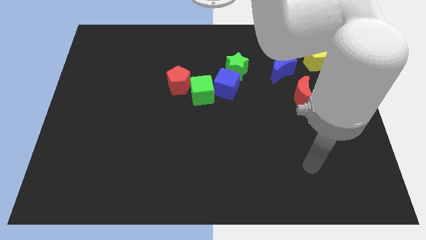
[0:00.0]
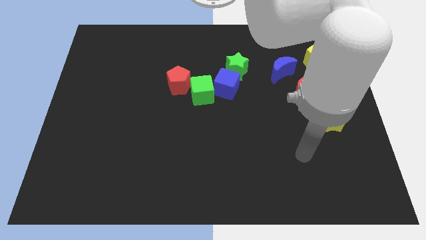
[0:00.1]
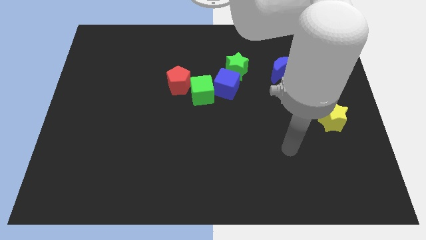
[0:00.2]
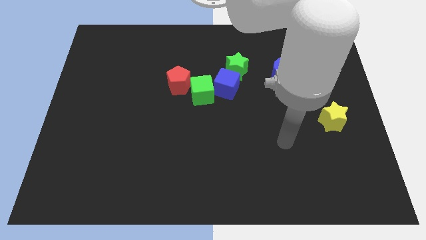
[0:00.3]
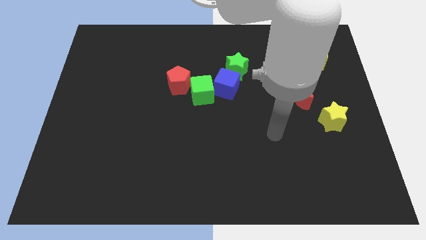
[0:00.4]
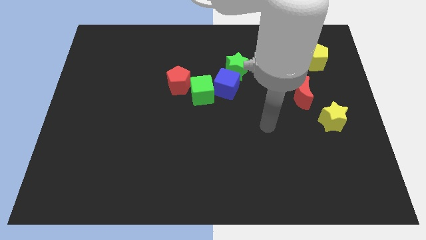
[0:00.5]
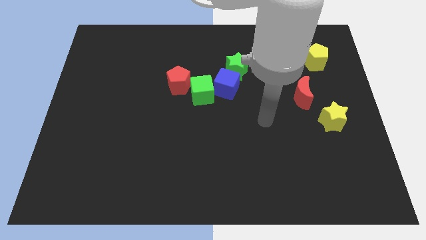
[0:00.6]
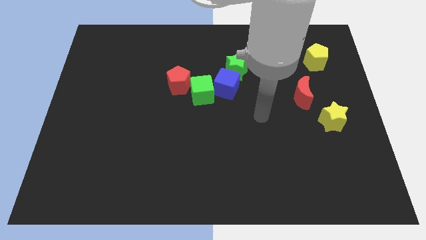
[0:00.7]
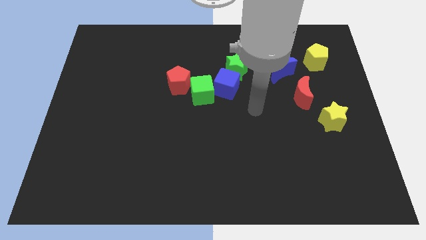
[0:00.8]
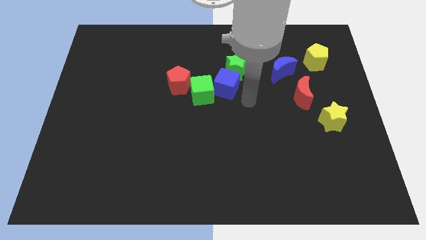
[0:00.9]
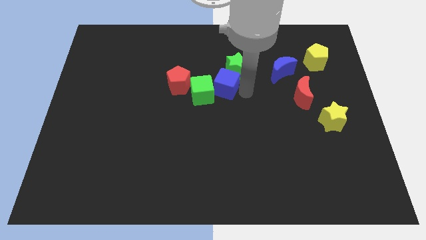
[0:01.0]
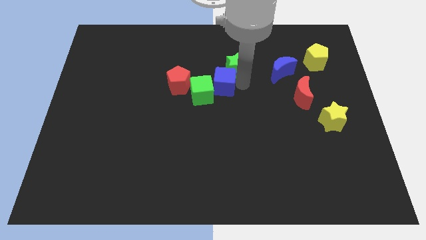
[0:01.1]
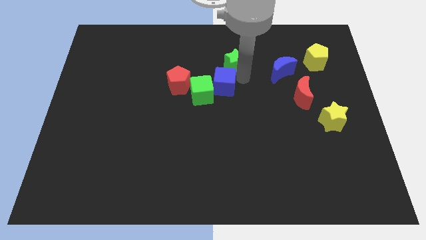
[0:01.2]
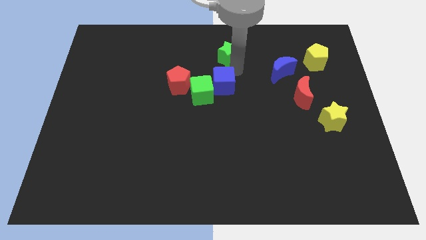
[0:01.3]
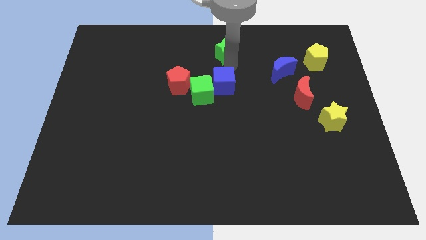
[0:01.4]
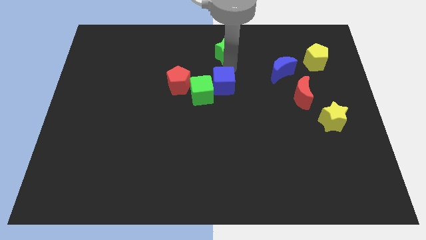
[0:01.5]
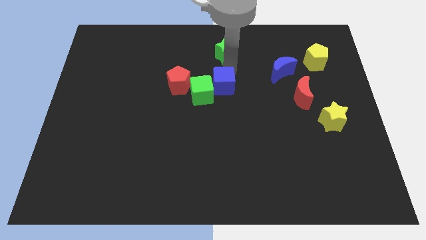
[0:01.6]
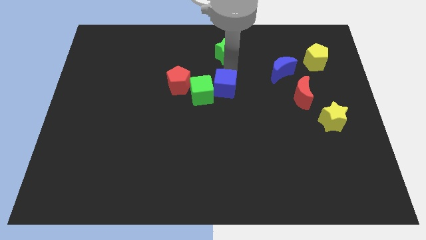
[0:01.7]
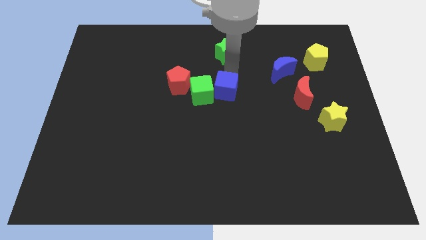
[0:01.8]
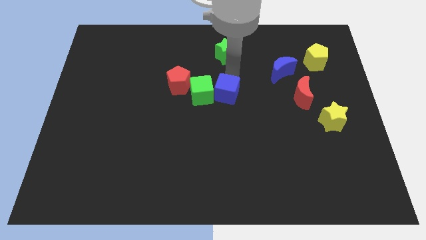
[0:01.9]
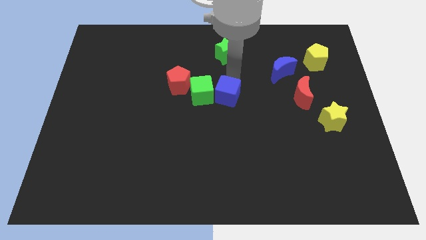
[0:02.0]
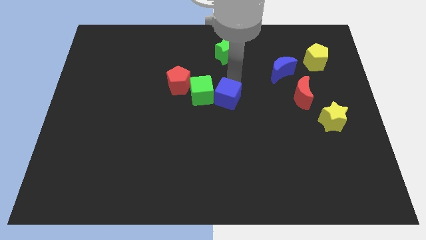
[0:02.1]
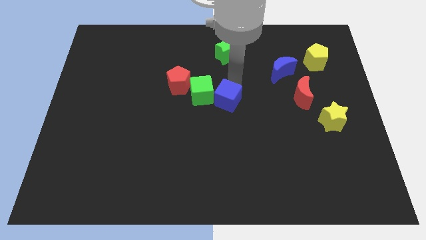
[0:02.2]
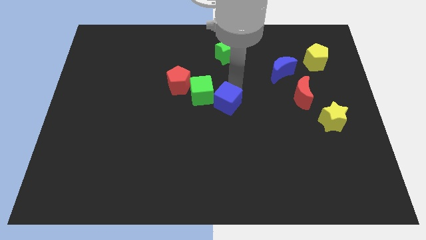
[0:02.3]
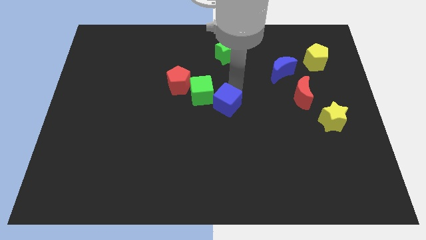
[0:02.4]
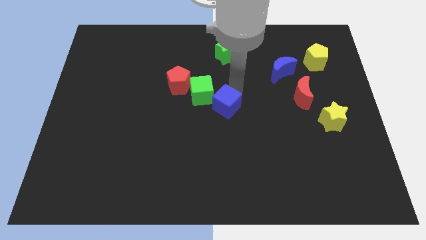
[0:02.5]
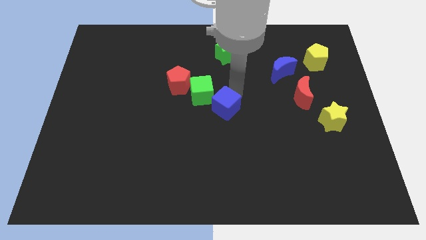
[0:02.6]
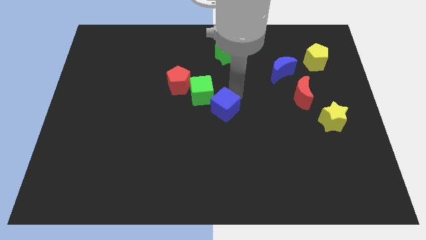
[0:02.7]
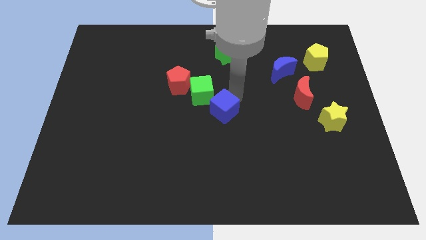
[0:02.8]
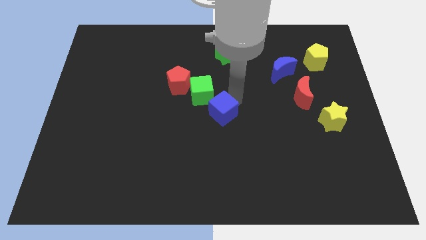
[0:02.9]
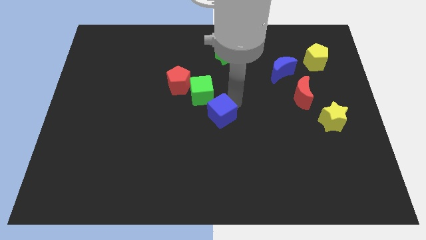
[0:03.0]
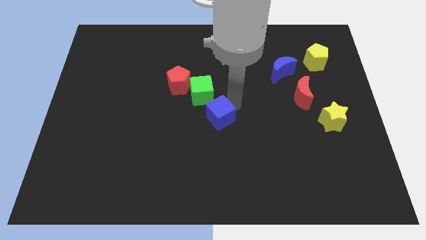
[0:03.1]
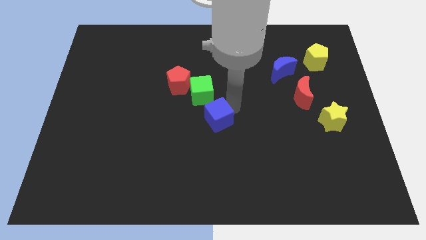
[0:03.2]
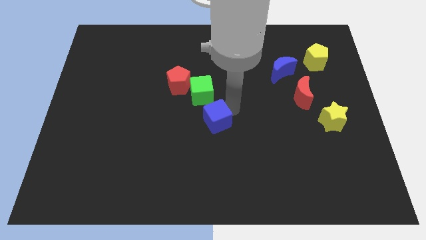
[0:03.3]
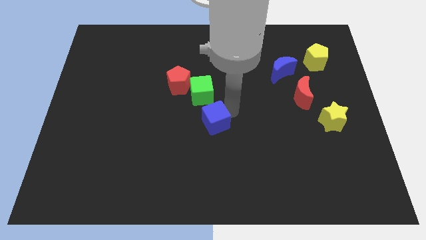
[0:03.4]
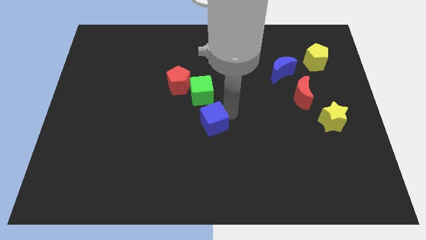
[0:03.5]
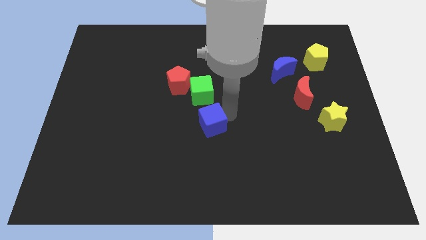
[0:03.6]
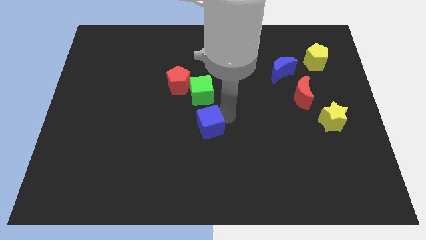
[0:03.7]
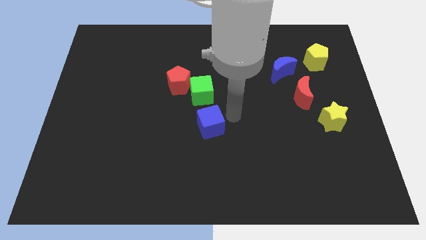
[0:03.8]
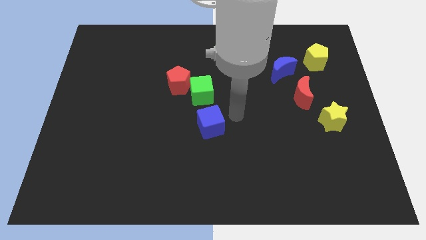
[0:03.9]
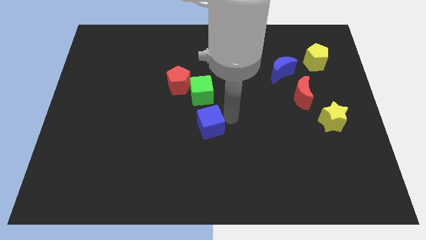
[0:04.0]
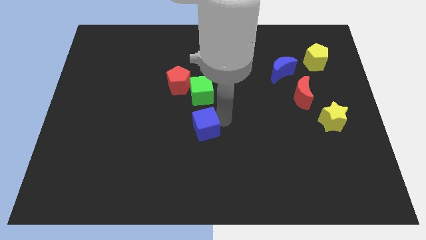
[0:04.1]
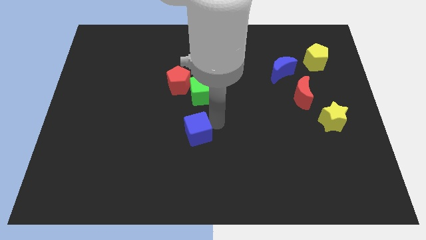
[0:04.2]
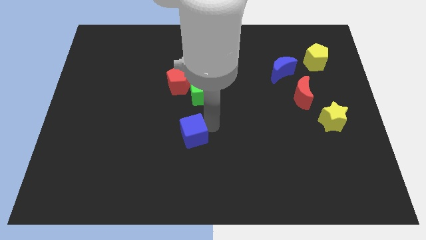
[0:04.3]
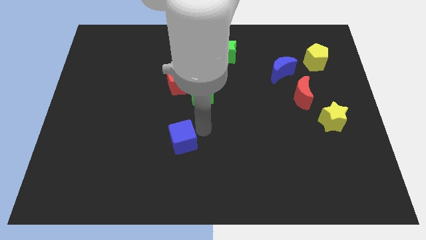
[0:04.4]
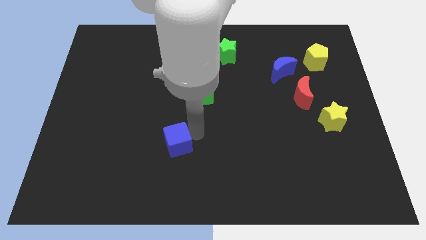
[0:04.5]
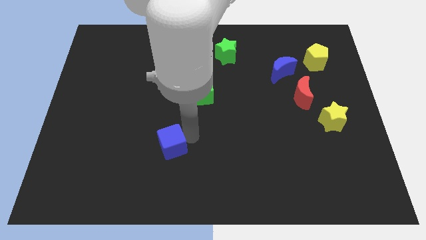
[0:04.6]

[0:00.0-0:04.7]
slide the blue cube diagonally downwards and left

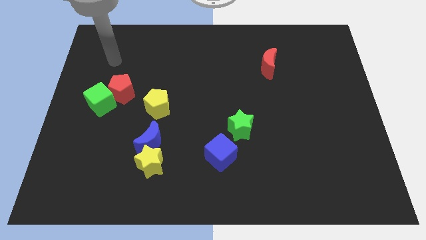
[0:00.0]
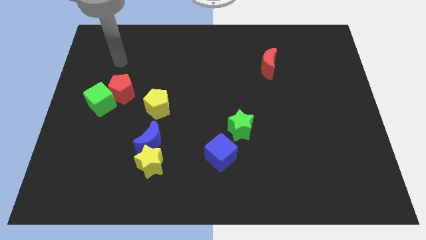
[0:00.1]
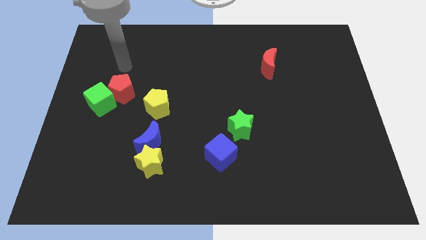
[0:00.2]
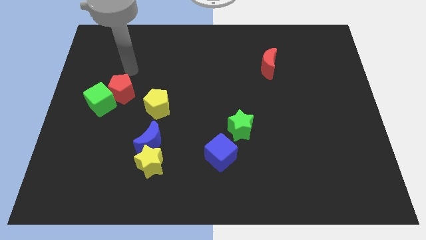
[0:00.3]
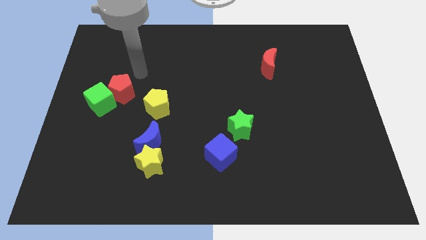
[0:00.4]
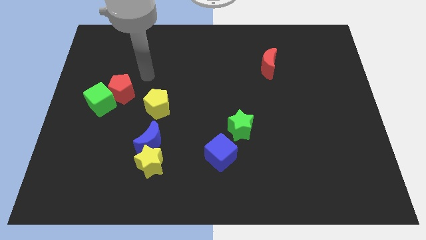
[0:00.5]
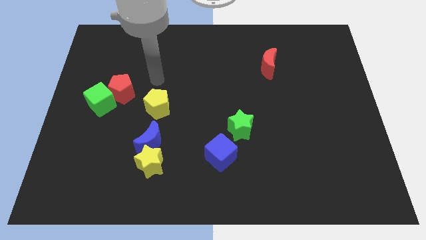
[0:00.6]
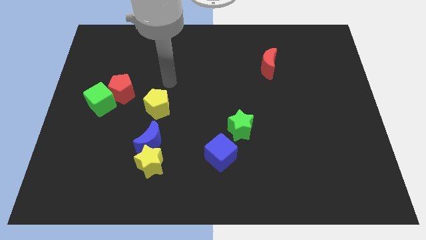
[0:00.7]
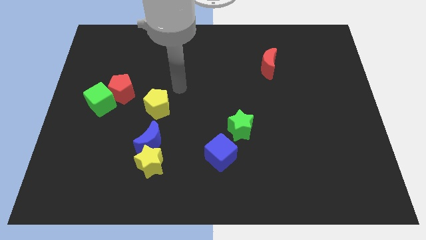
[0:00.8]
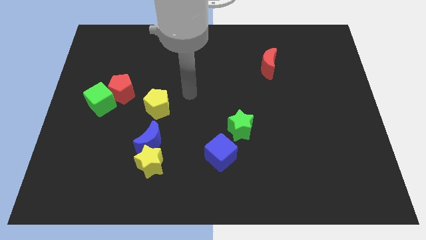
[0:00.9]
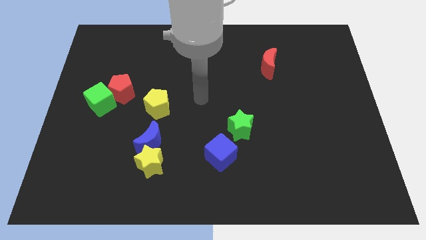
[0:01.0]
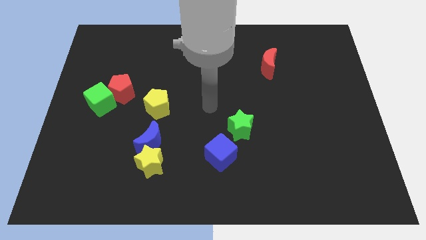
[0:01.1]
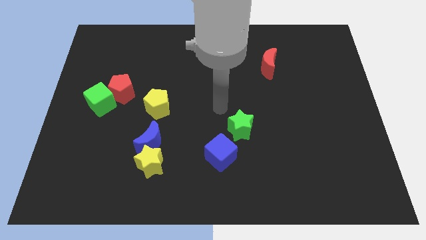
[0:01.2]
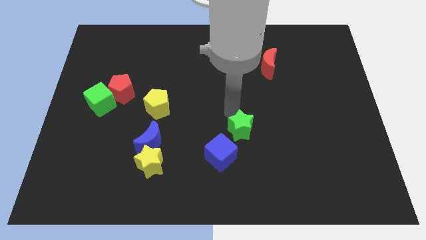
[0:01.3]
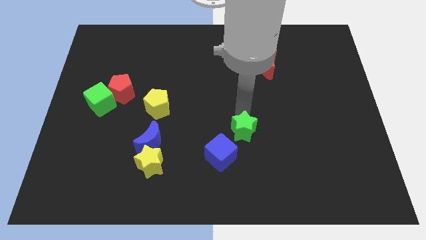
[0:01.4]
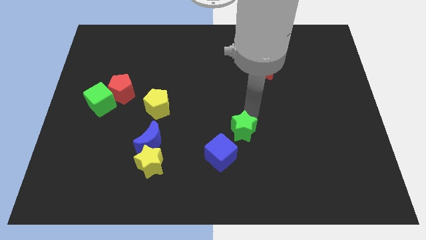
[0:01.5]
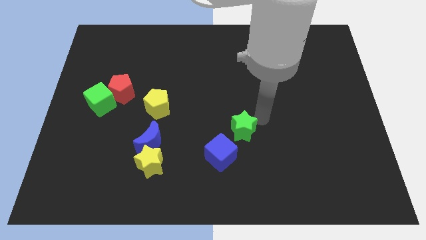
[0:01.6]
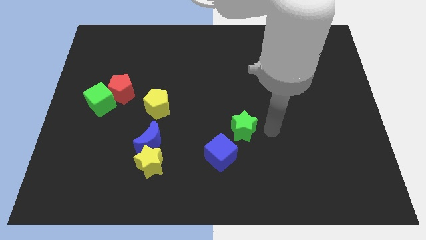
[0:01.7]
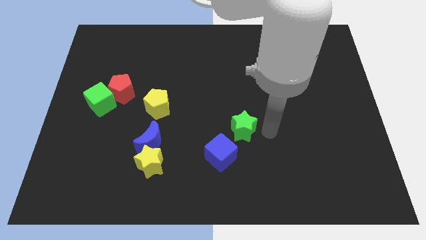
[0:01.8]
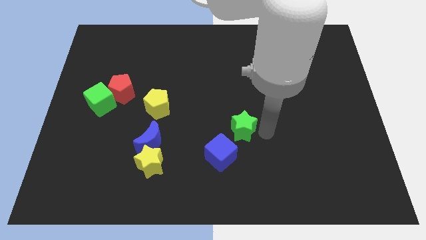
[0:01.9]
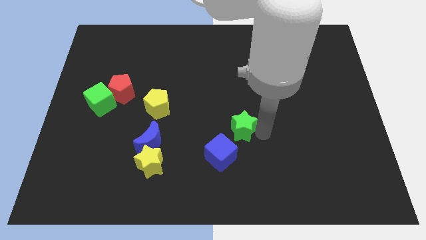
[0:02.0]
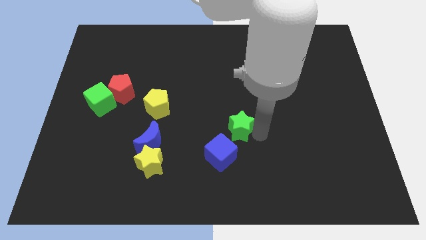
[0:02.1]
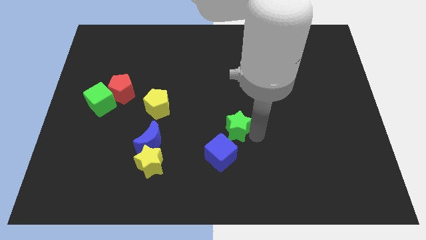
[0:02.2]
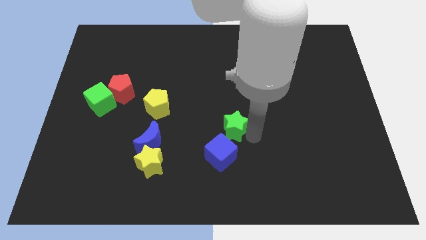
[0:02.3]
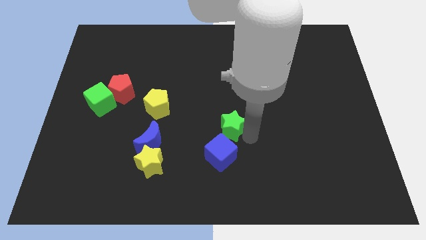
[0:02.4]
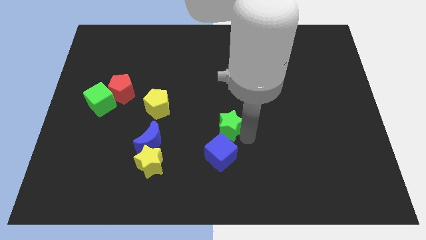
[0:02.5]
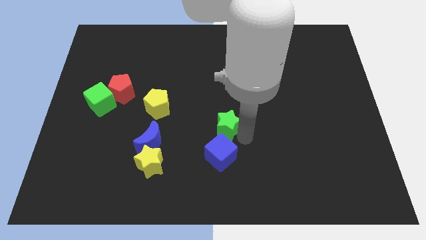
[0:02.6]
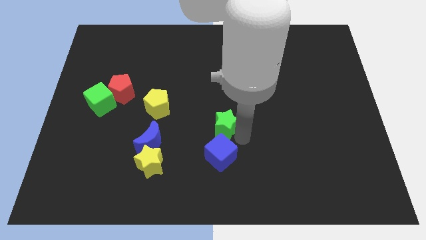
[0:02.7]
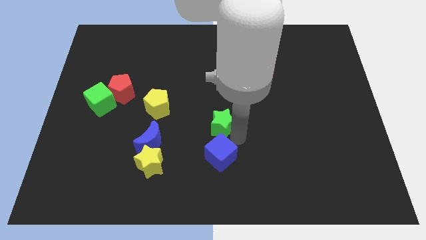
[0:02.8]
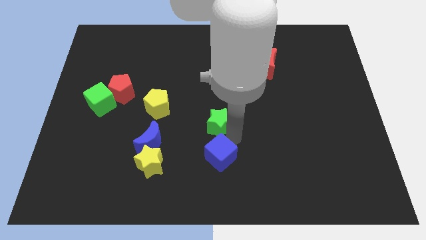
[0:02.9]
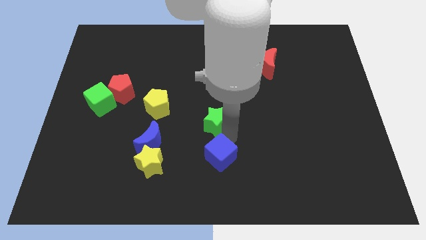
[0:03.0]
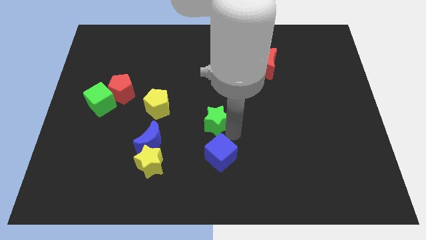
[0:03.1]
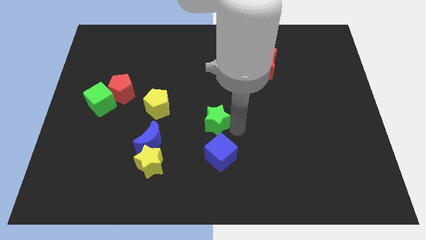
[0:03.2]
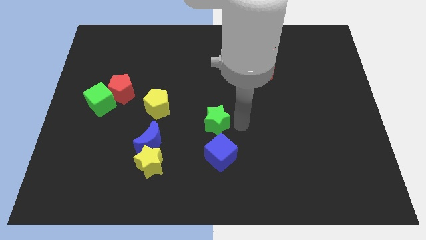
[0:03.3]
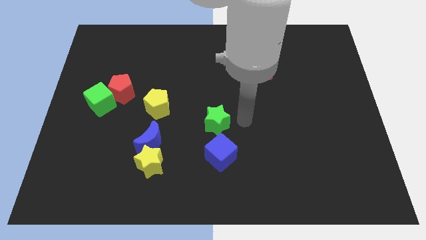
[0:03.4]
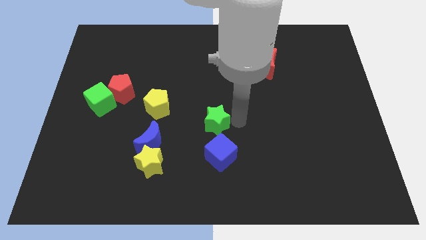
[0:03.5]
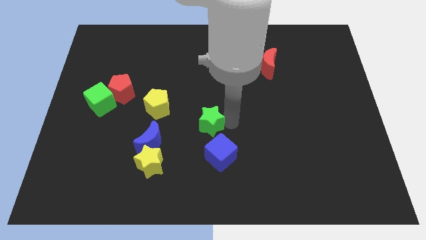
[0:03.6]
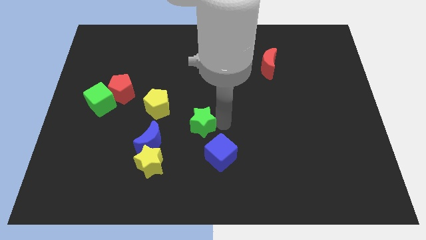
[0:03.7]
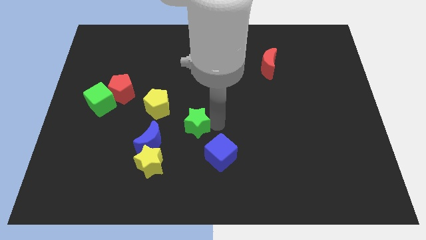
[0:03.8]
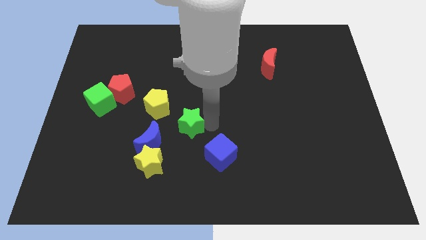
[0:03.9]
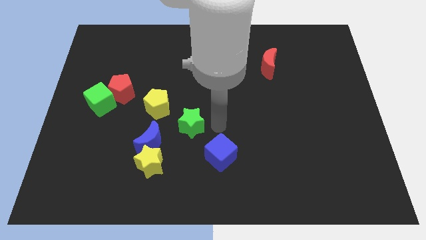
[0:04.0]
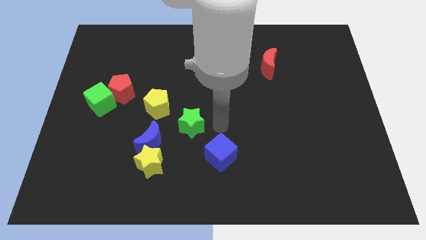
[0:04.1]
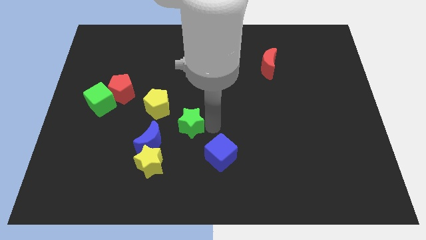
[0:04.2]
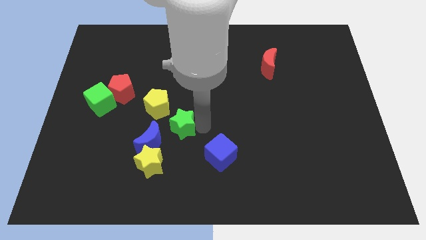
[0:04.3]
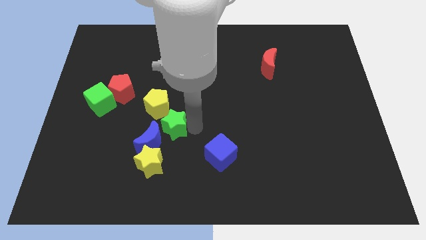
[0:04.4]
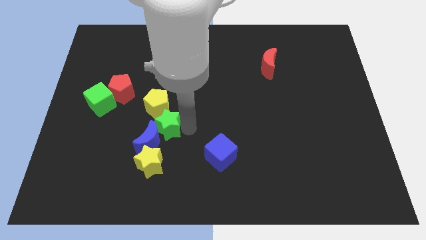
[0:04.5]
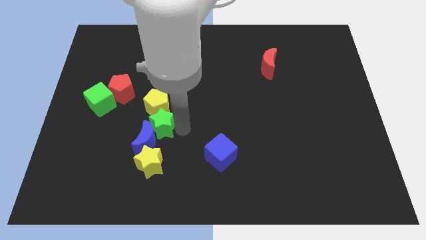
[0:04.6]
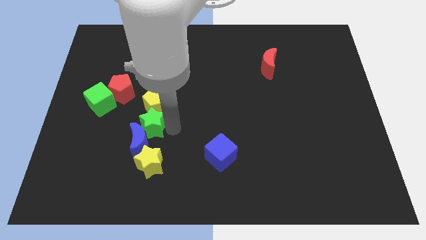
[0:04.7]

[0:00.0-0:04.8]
move the green star to the left
